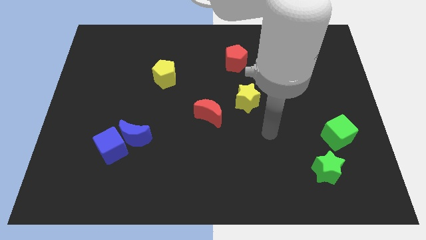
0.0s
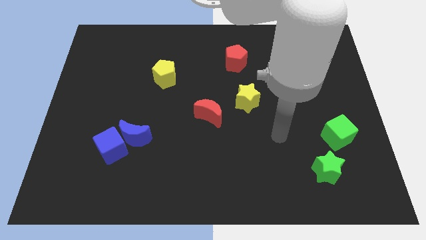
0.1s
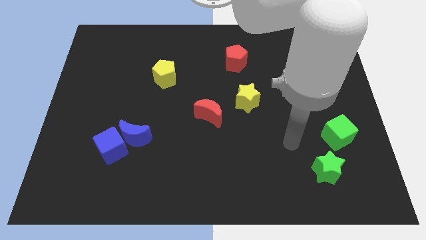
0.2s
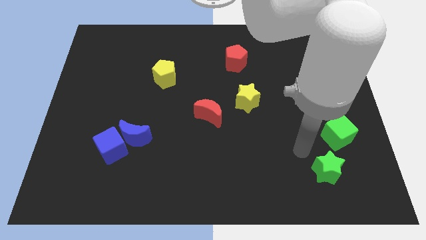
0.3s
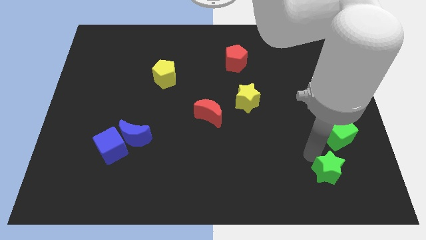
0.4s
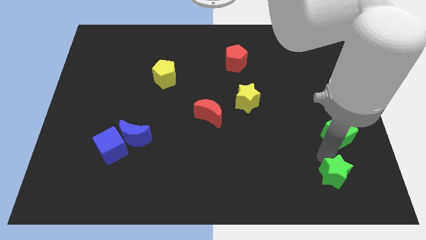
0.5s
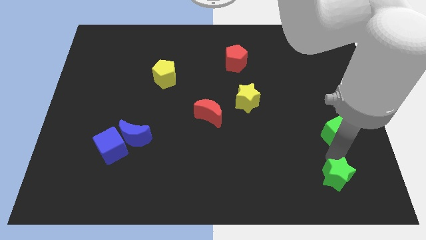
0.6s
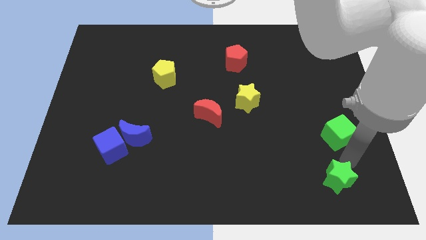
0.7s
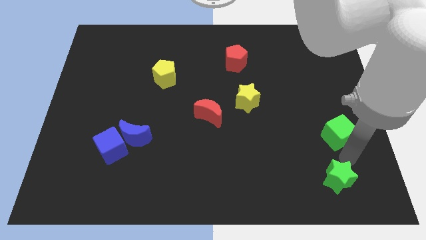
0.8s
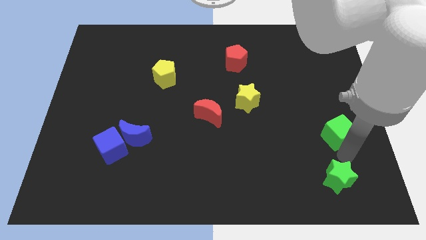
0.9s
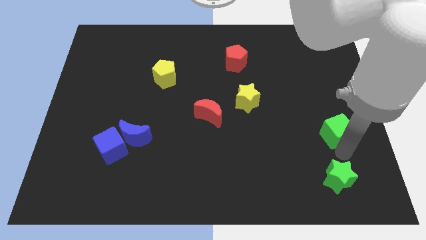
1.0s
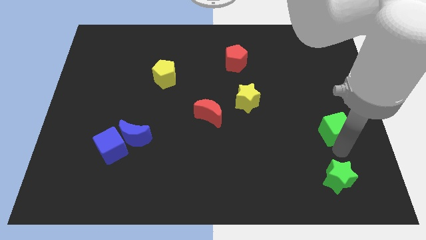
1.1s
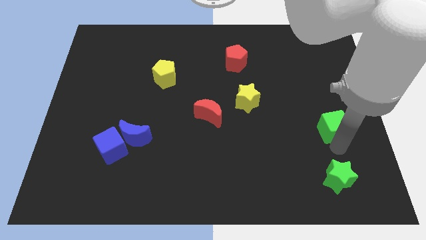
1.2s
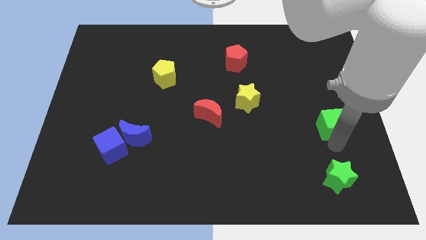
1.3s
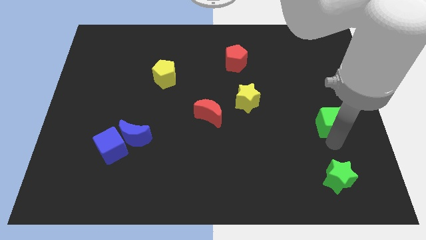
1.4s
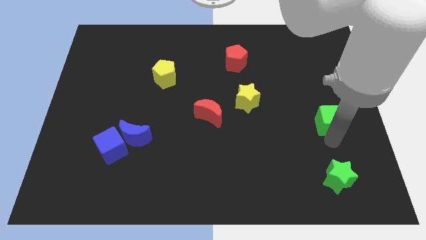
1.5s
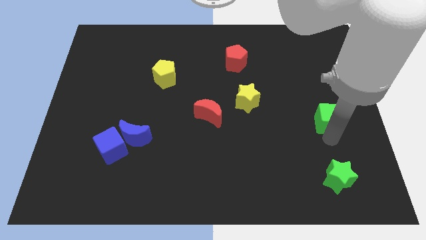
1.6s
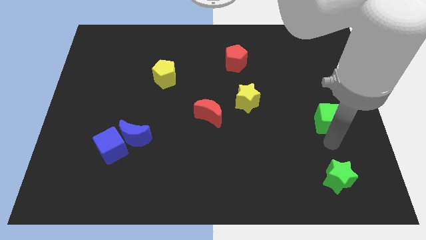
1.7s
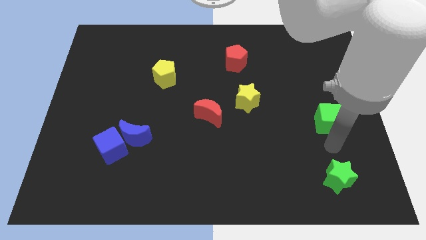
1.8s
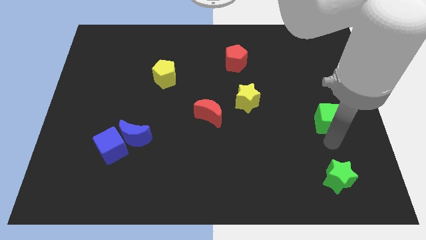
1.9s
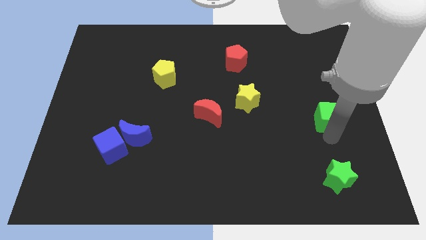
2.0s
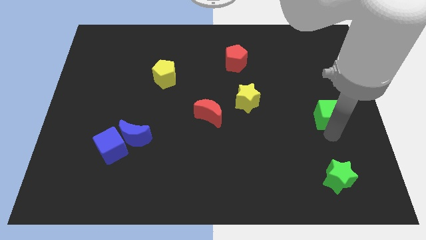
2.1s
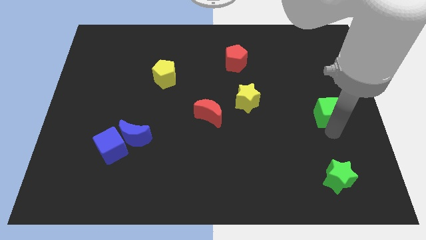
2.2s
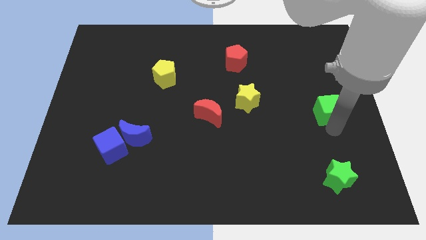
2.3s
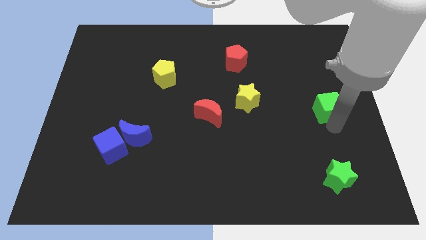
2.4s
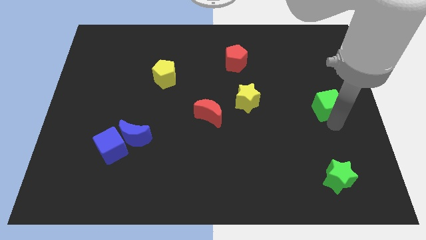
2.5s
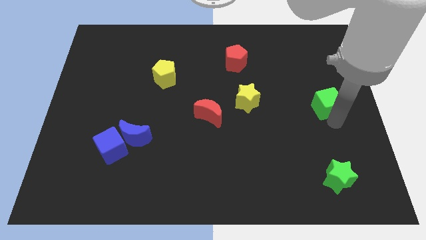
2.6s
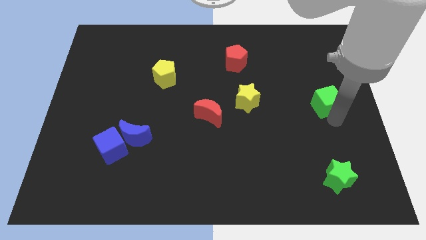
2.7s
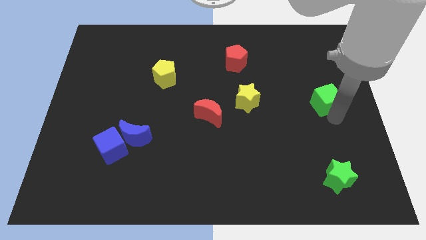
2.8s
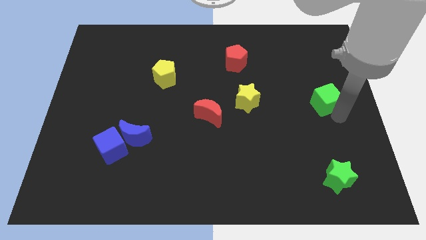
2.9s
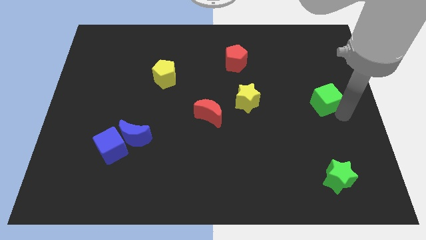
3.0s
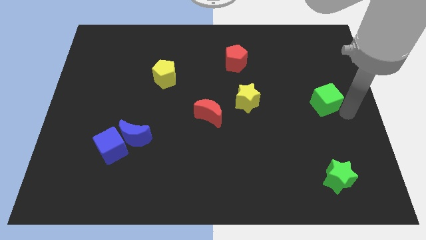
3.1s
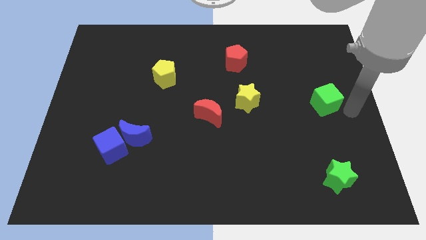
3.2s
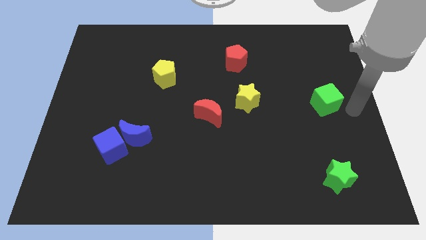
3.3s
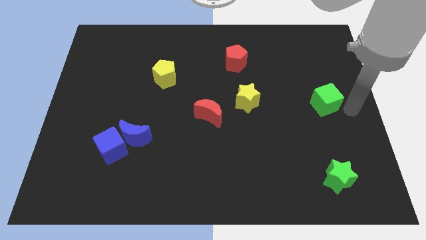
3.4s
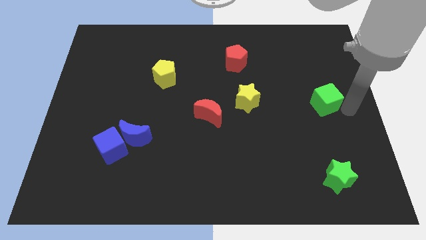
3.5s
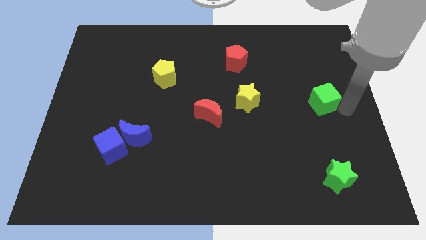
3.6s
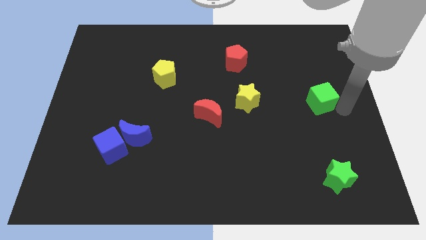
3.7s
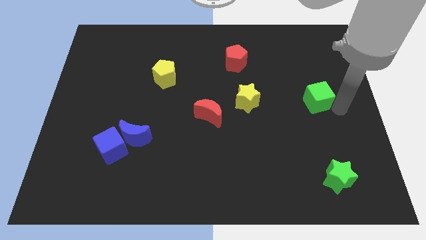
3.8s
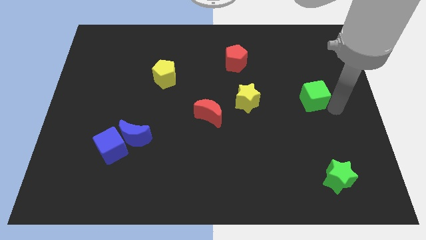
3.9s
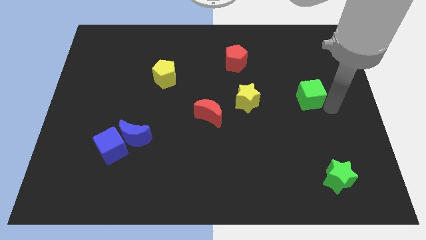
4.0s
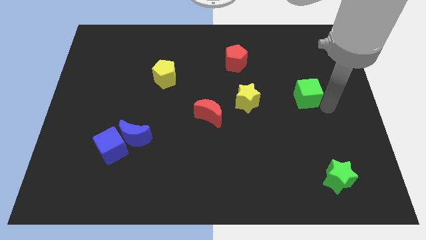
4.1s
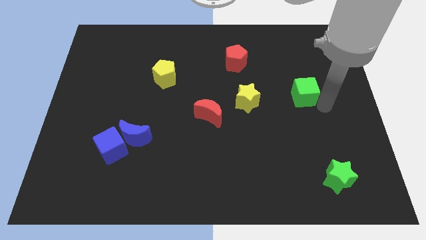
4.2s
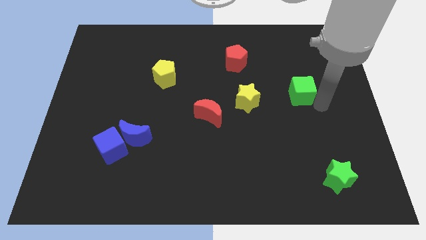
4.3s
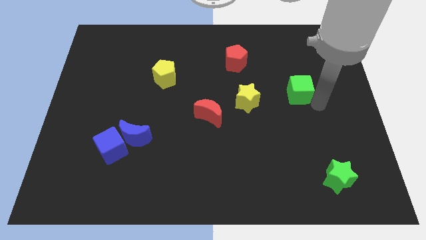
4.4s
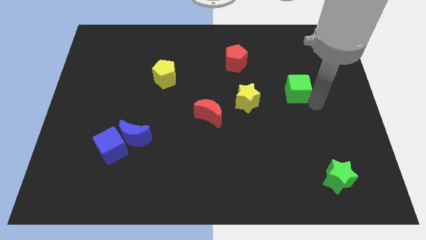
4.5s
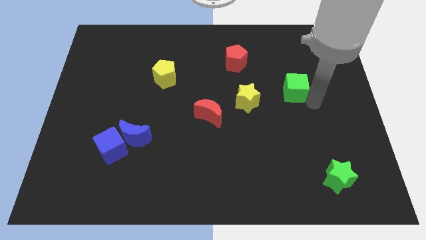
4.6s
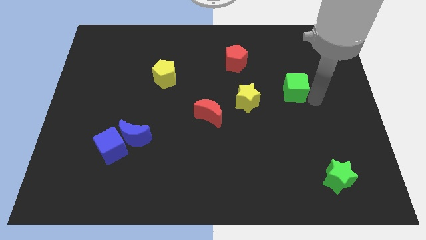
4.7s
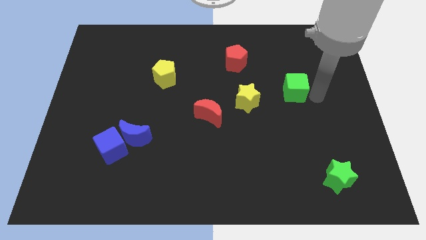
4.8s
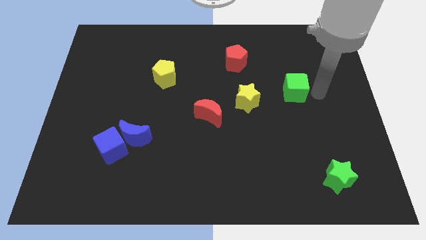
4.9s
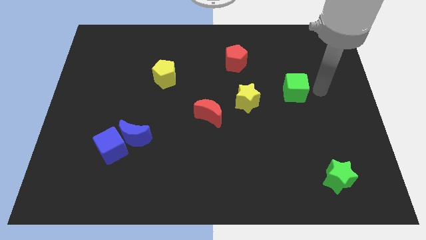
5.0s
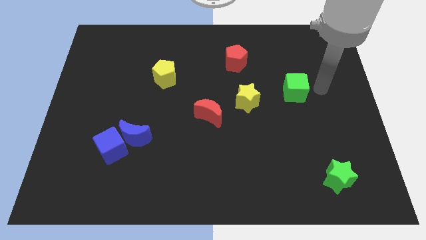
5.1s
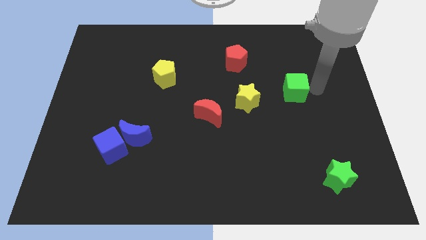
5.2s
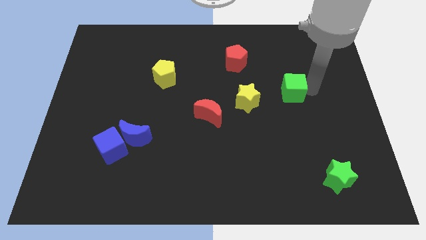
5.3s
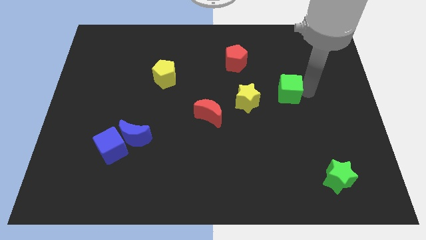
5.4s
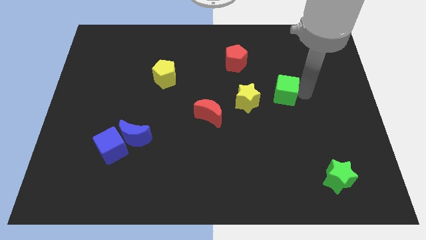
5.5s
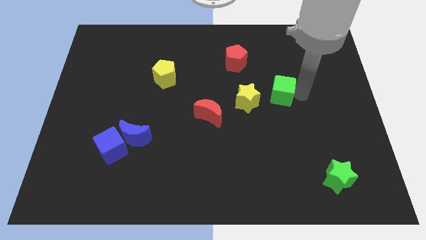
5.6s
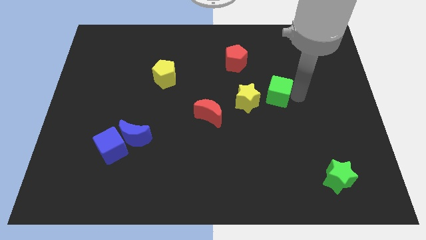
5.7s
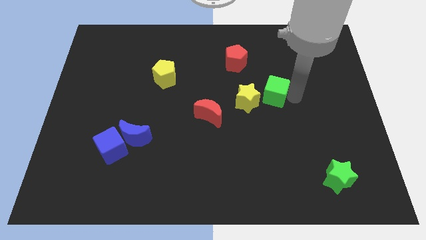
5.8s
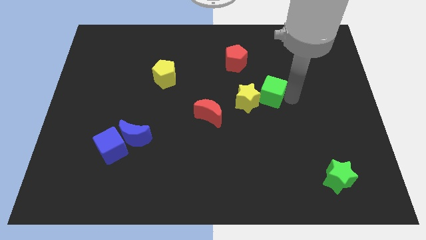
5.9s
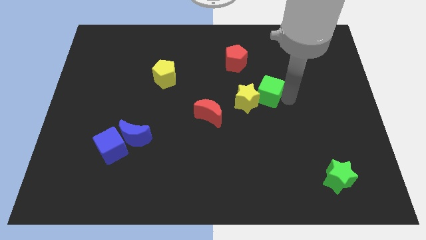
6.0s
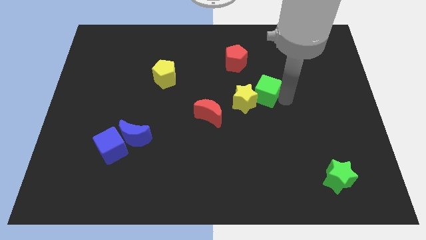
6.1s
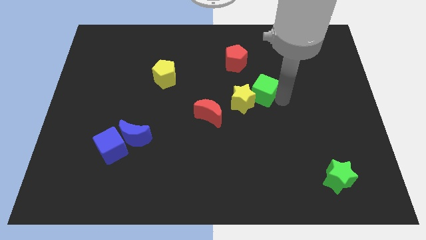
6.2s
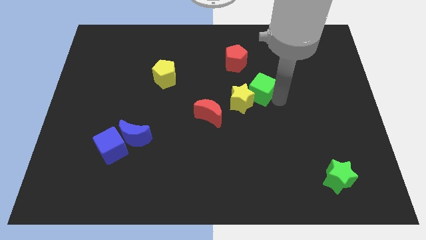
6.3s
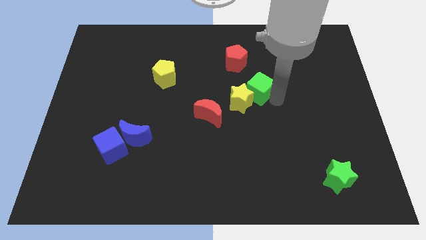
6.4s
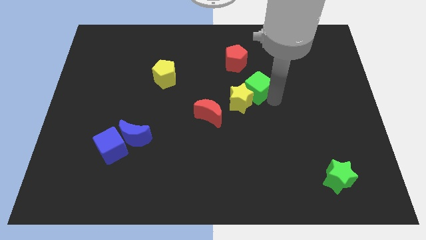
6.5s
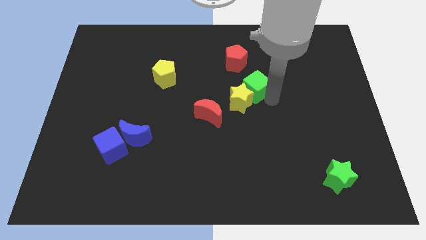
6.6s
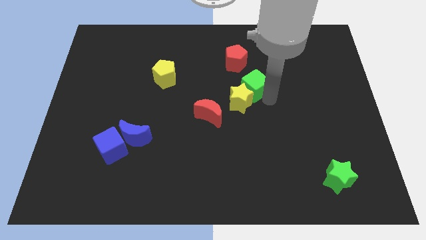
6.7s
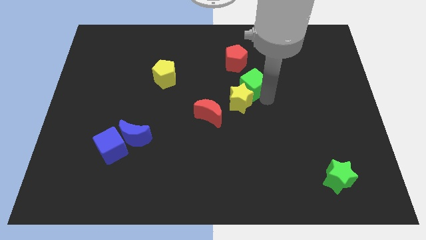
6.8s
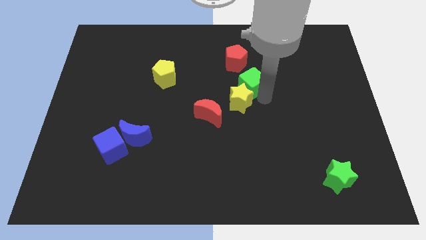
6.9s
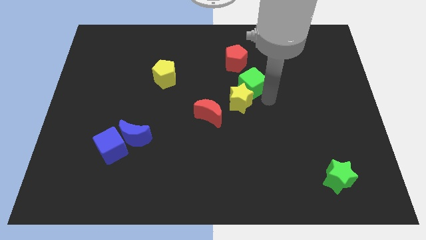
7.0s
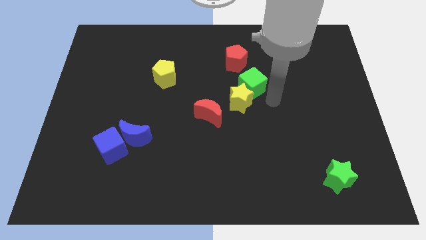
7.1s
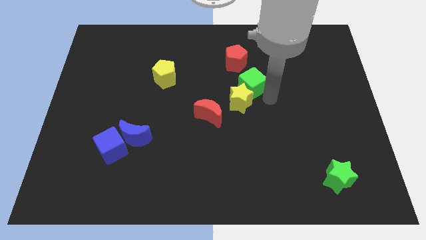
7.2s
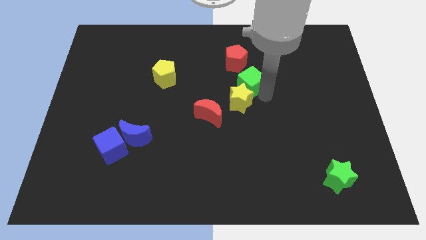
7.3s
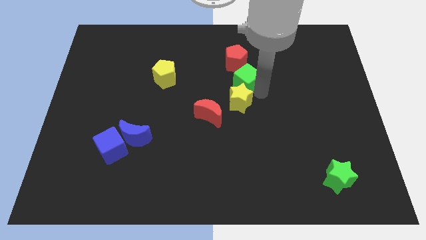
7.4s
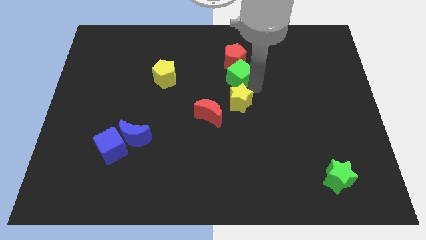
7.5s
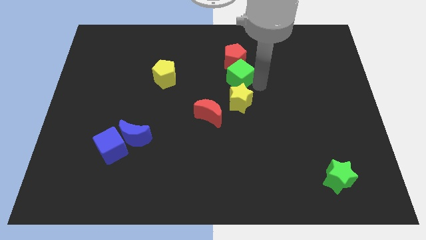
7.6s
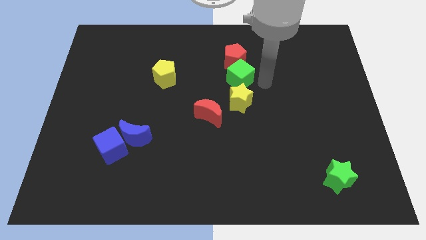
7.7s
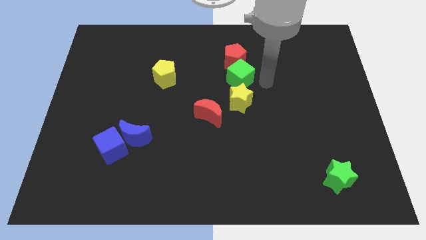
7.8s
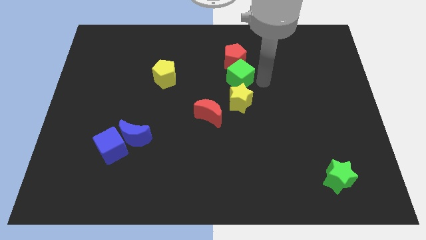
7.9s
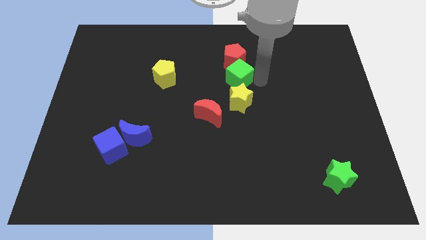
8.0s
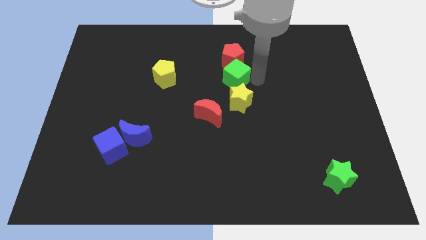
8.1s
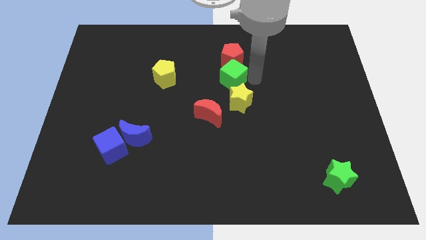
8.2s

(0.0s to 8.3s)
slide the green cube diagonally down and to the left of the red pentagon

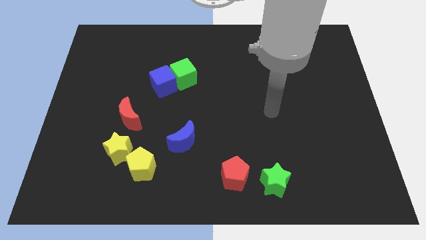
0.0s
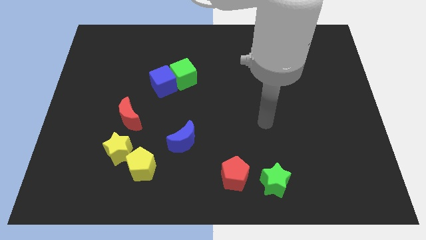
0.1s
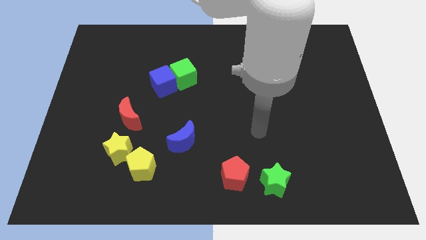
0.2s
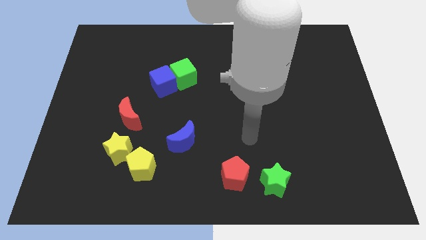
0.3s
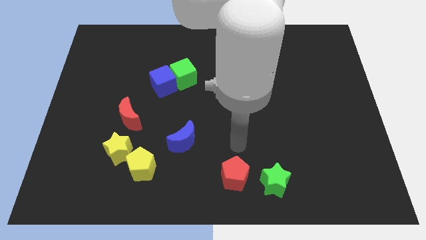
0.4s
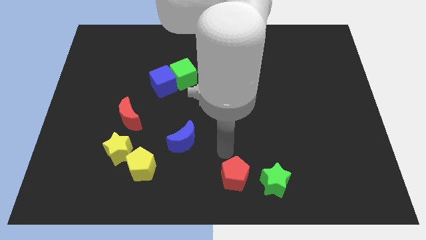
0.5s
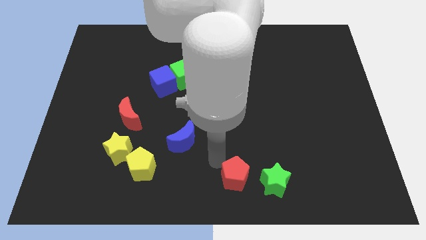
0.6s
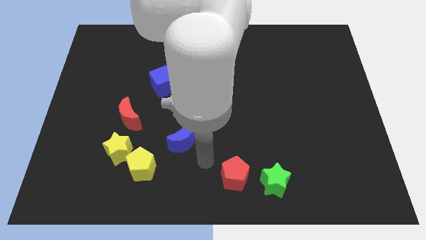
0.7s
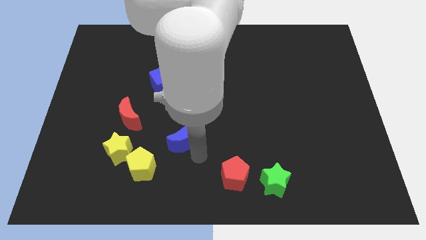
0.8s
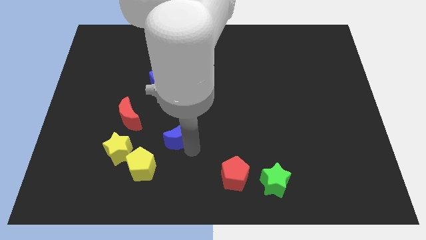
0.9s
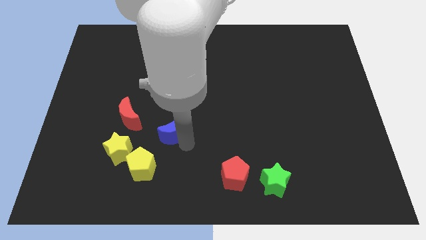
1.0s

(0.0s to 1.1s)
move the blue moon to the bottom side of the blue cube
